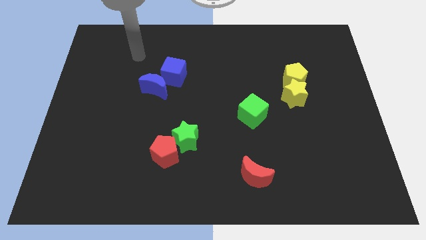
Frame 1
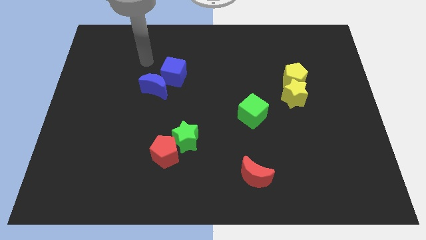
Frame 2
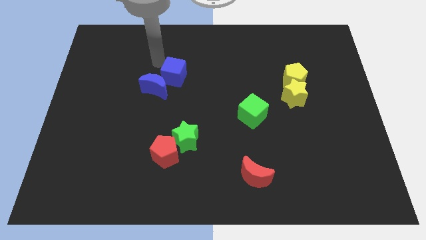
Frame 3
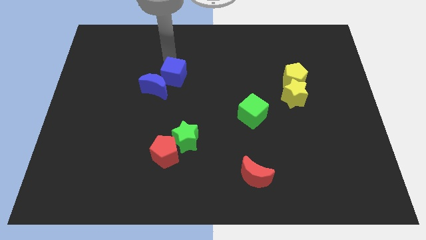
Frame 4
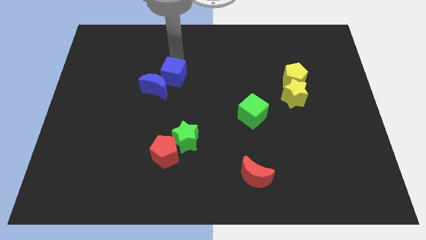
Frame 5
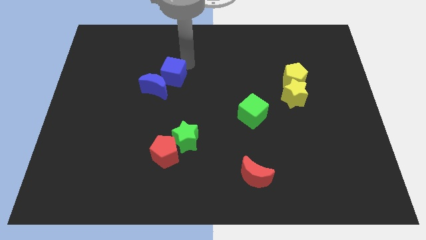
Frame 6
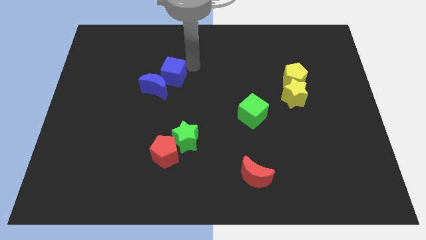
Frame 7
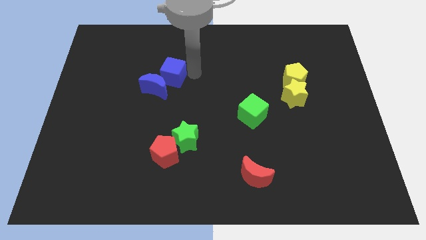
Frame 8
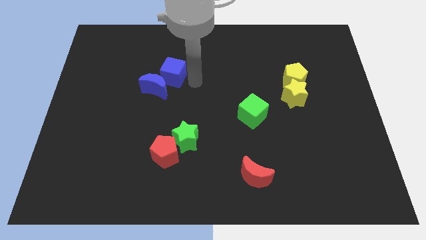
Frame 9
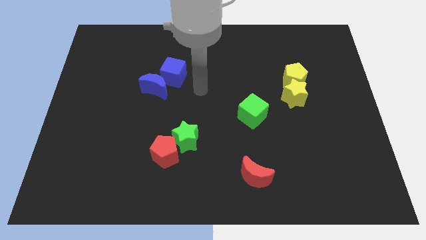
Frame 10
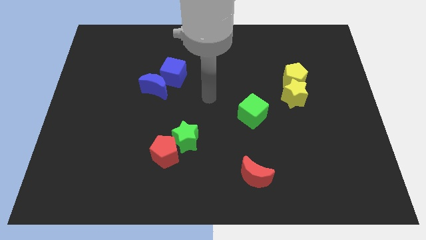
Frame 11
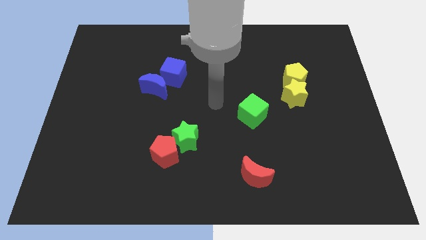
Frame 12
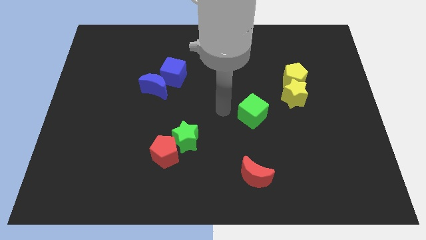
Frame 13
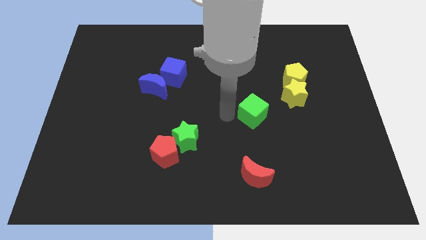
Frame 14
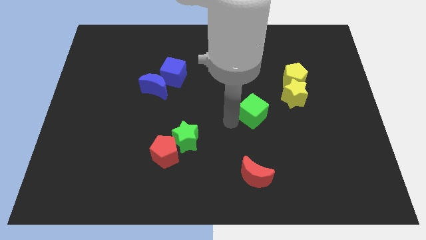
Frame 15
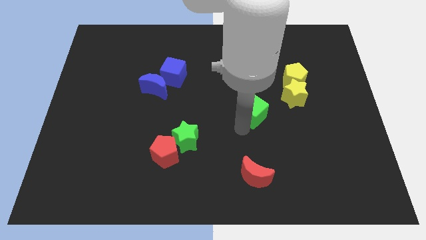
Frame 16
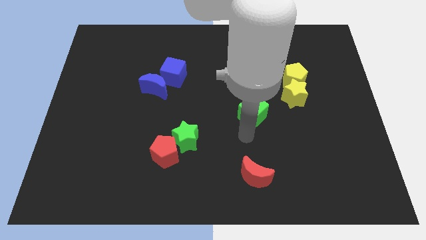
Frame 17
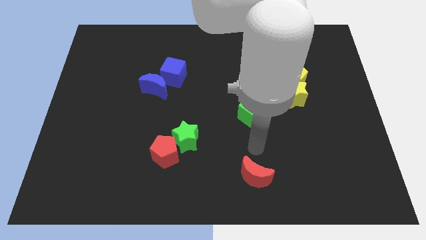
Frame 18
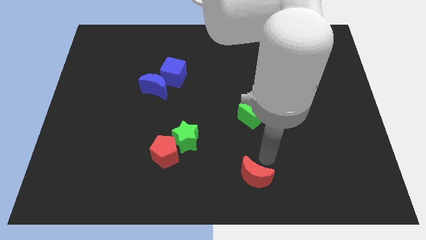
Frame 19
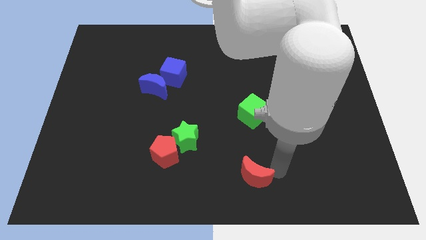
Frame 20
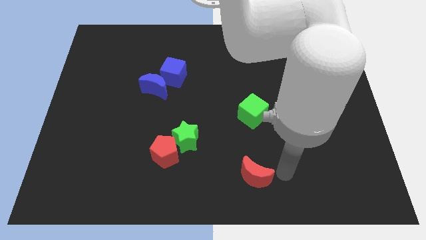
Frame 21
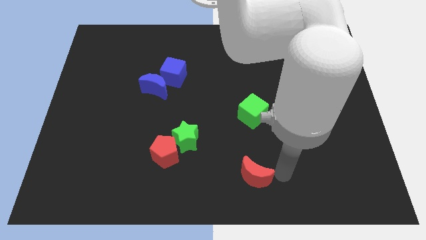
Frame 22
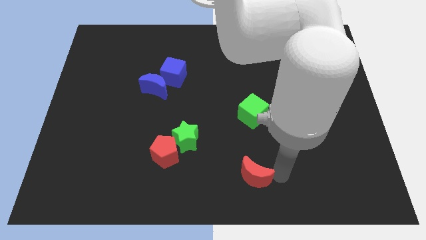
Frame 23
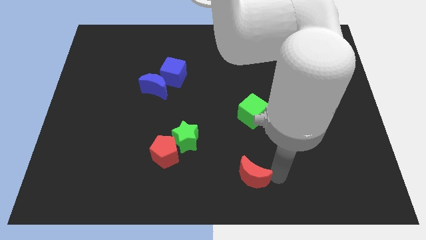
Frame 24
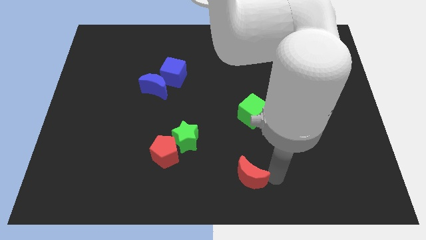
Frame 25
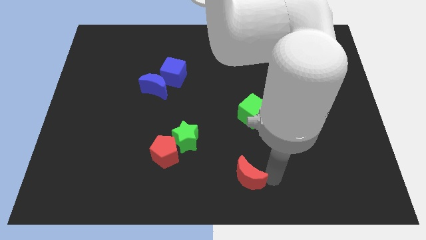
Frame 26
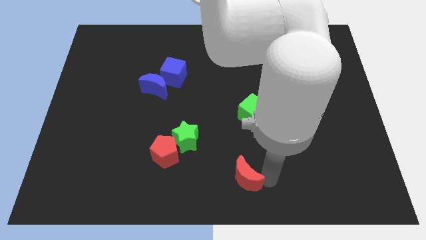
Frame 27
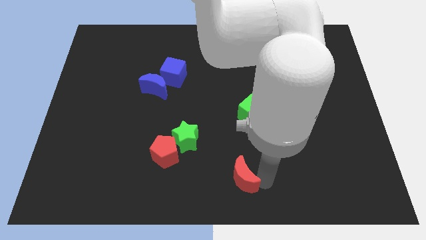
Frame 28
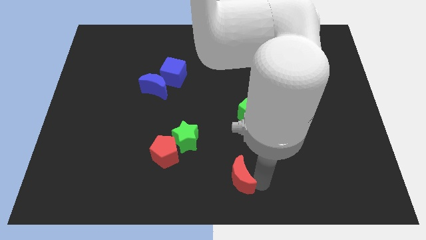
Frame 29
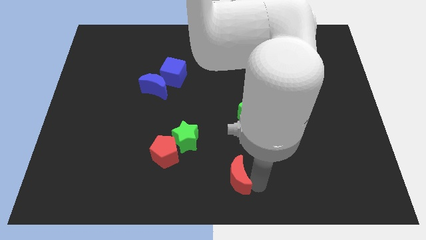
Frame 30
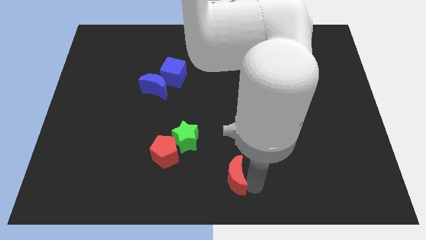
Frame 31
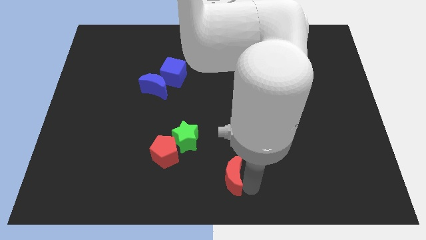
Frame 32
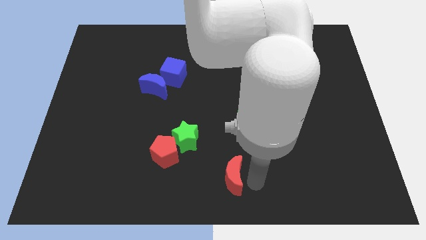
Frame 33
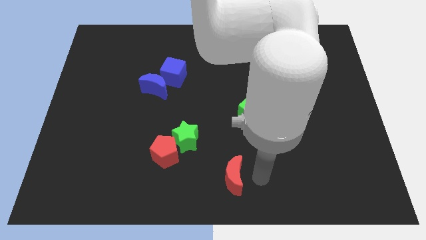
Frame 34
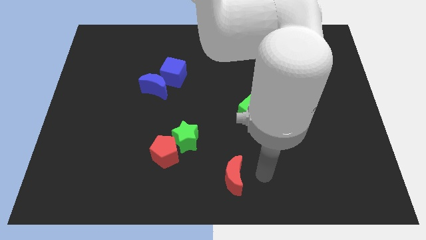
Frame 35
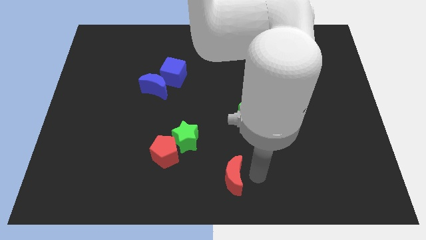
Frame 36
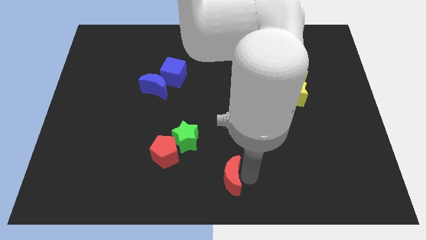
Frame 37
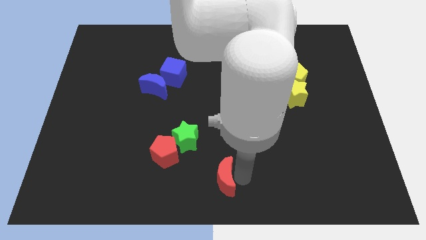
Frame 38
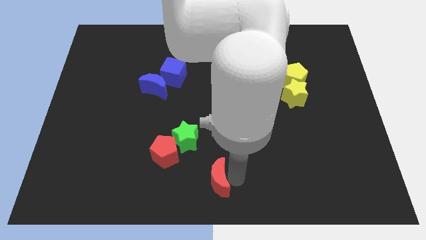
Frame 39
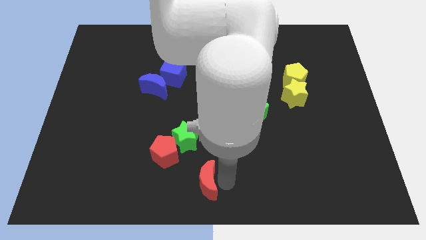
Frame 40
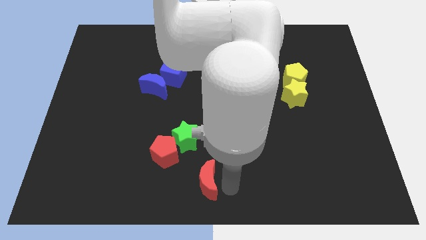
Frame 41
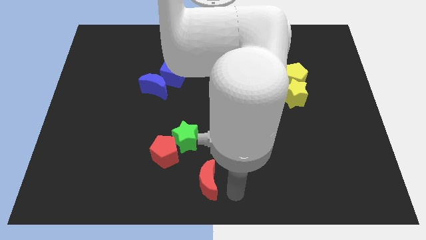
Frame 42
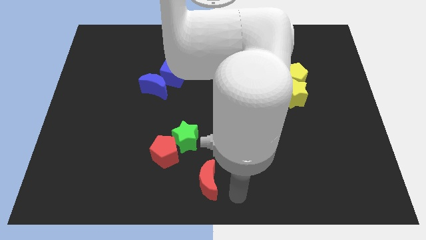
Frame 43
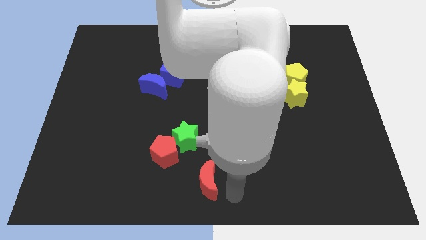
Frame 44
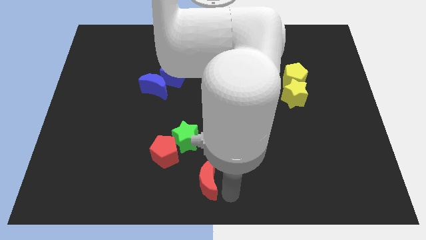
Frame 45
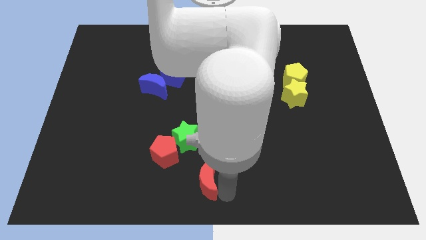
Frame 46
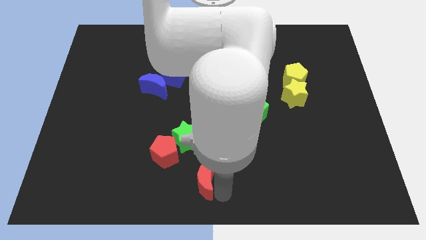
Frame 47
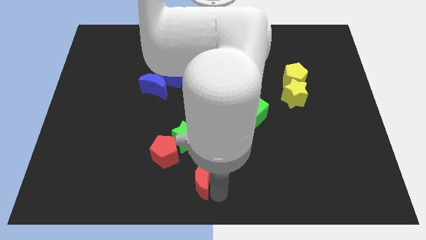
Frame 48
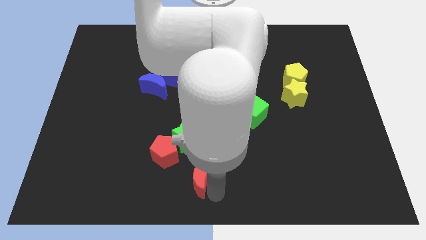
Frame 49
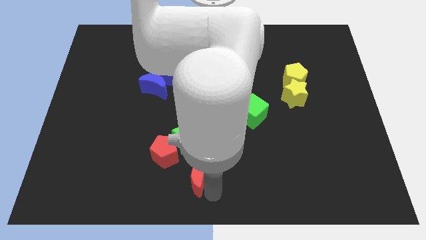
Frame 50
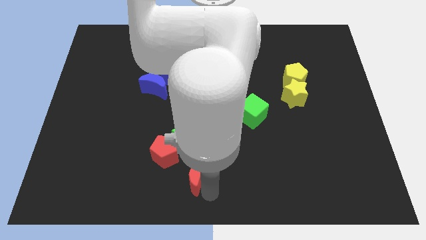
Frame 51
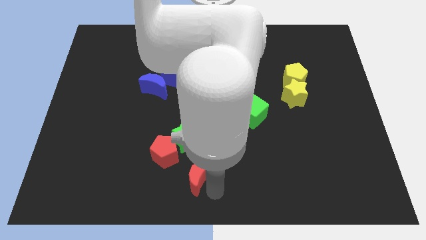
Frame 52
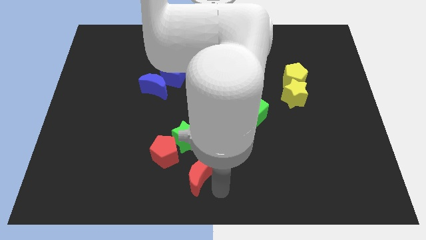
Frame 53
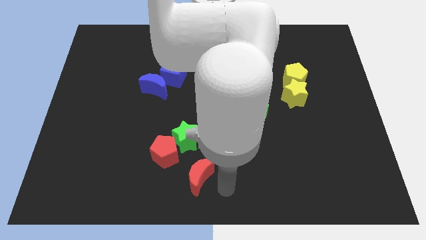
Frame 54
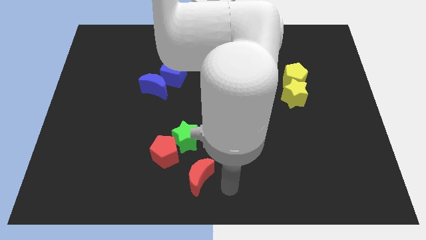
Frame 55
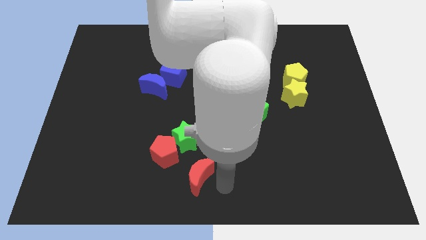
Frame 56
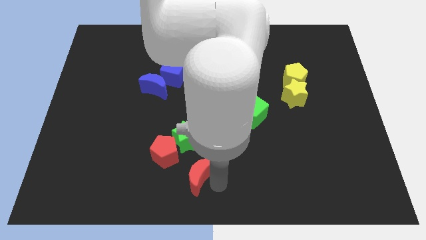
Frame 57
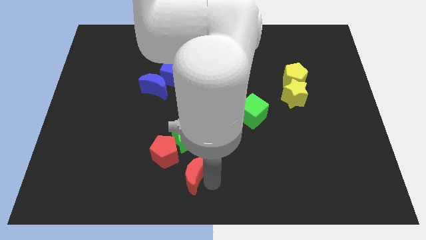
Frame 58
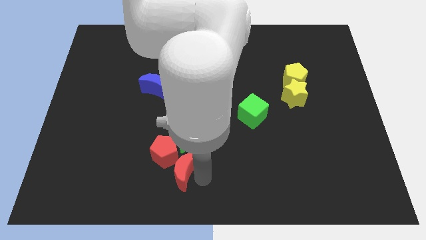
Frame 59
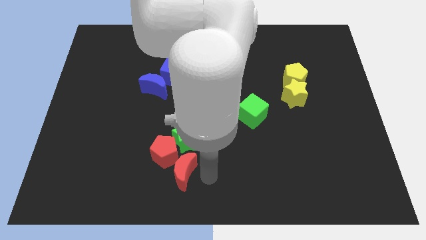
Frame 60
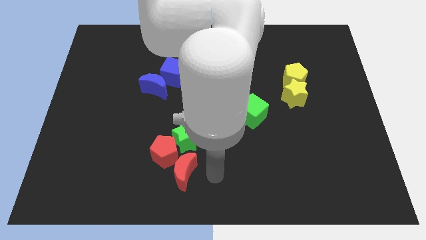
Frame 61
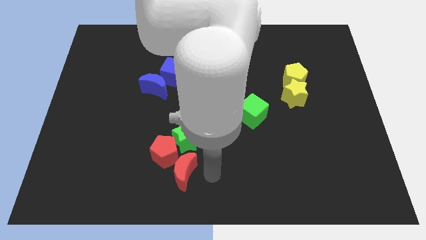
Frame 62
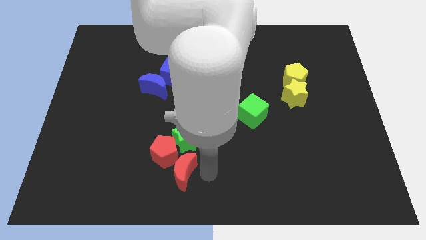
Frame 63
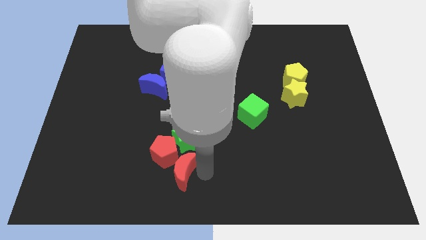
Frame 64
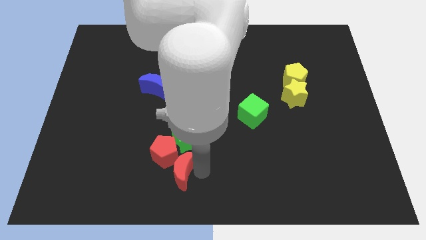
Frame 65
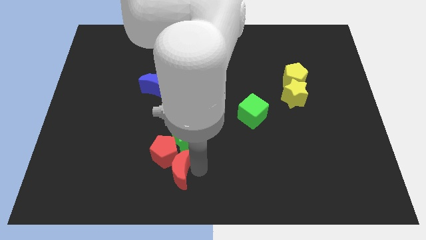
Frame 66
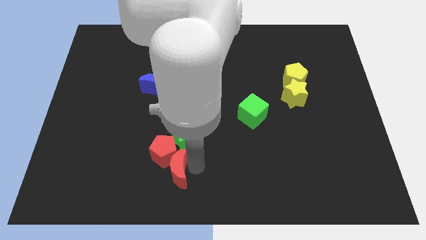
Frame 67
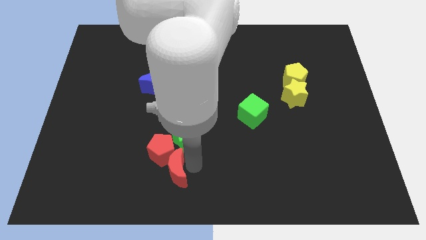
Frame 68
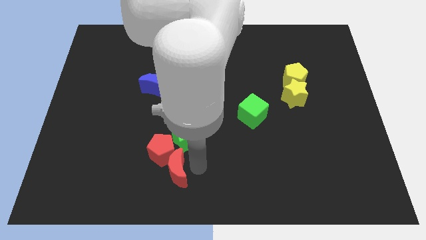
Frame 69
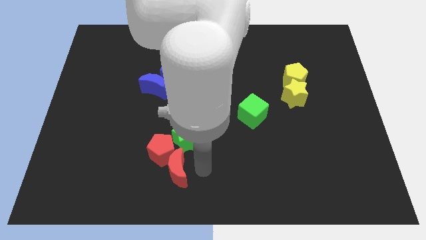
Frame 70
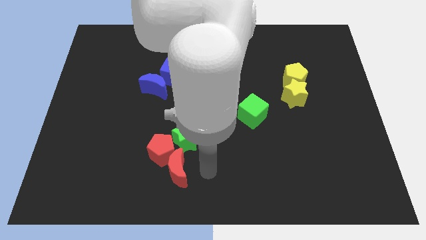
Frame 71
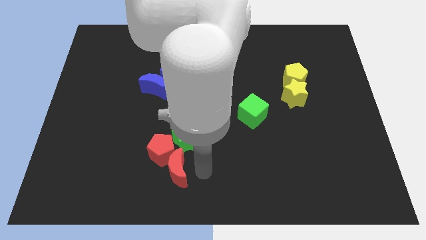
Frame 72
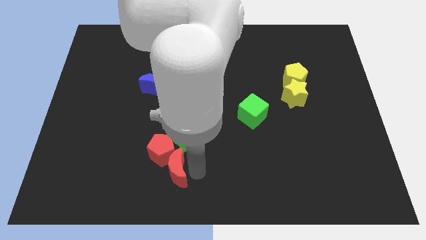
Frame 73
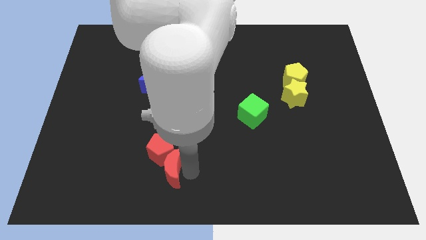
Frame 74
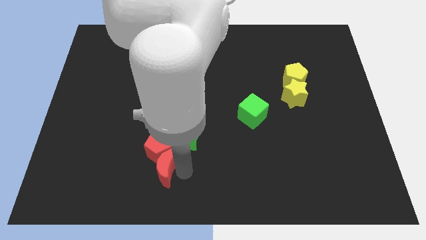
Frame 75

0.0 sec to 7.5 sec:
push the red moon diagonally down and to the left of the red pentagon
